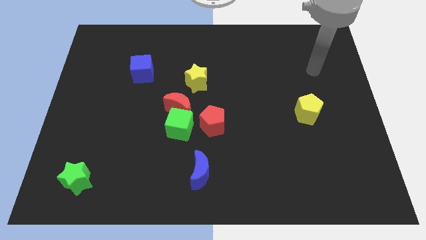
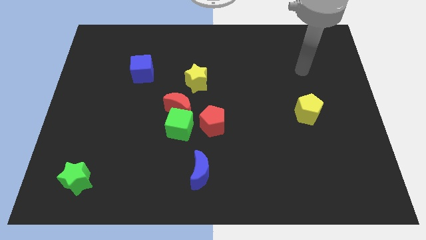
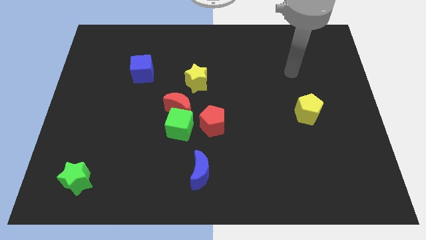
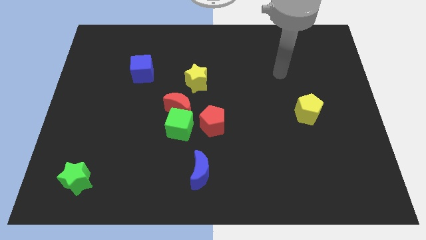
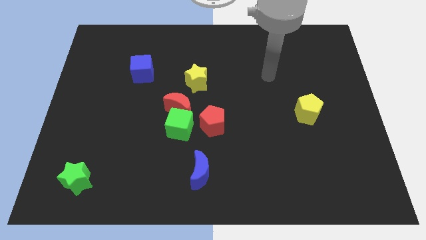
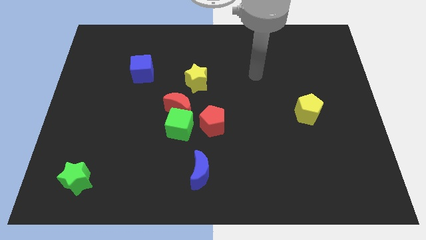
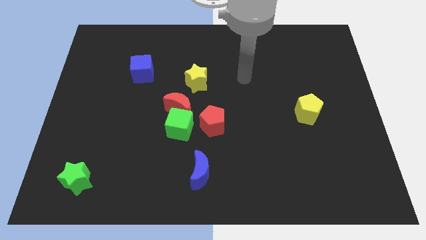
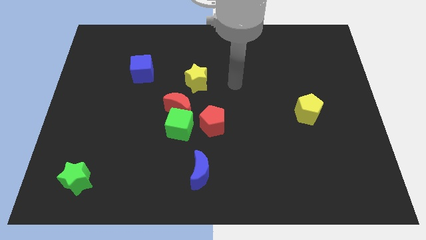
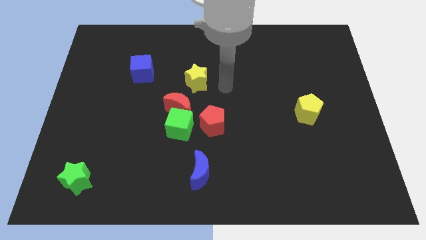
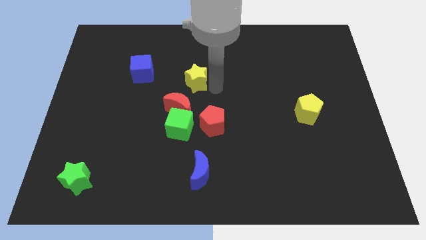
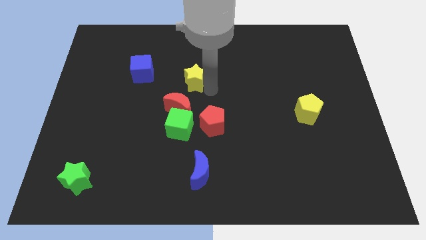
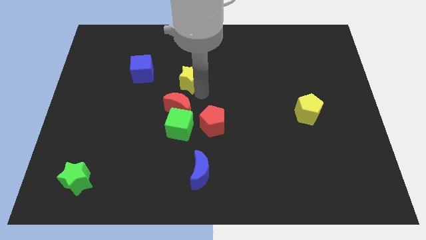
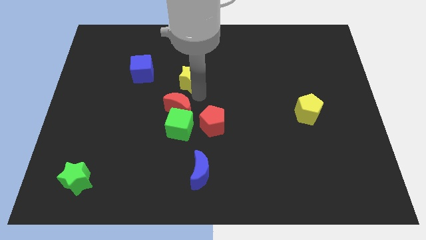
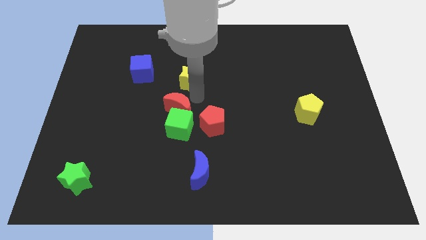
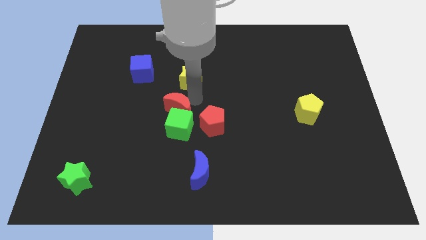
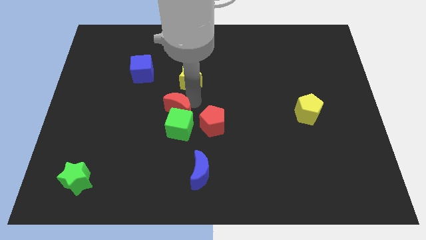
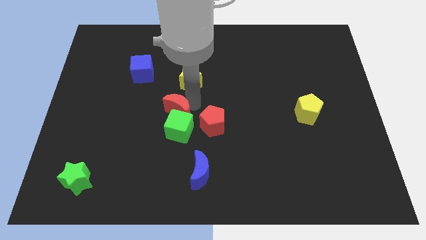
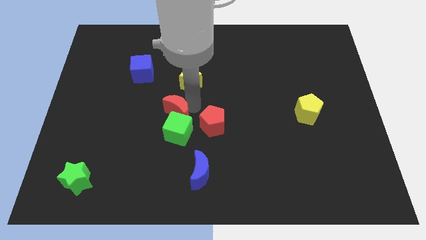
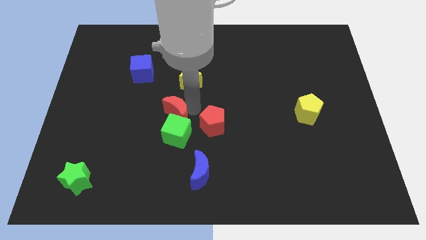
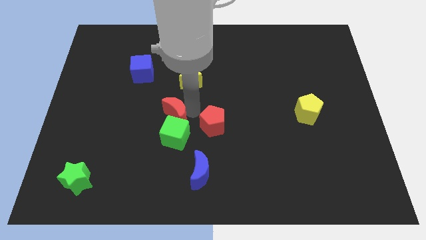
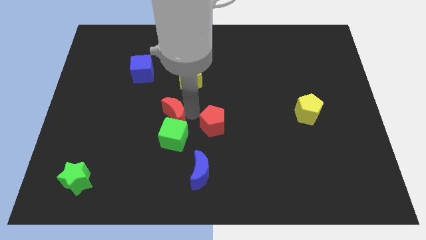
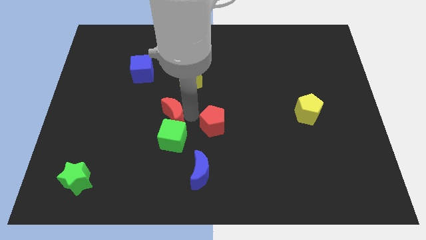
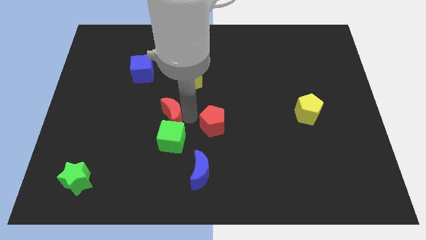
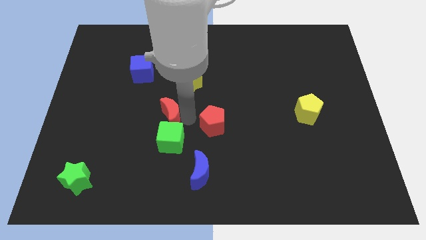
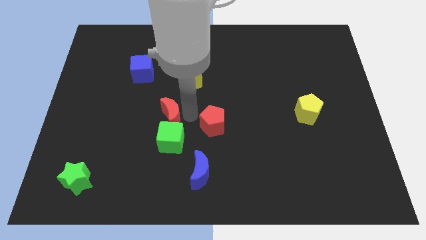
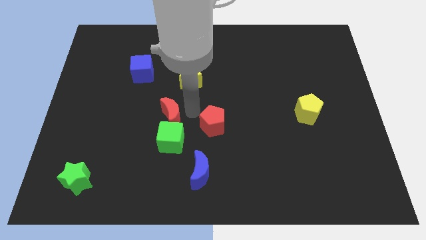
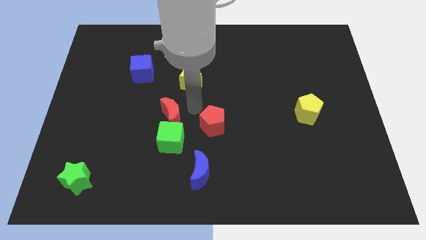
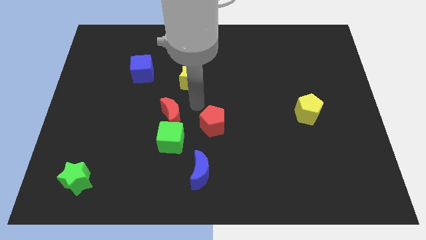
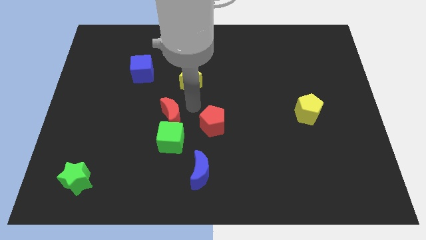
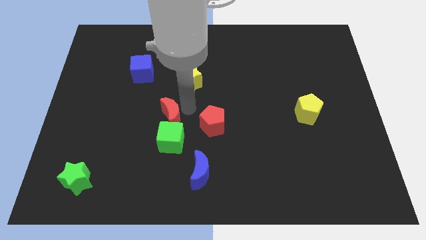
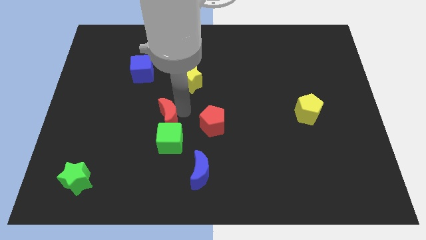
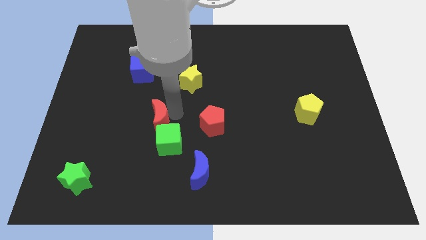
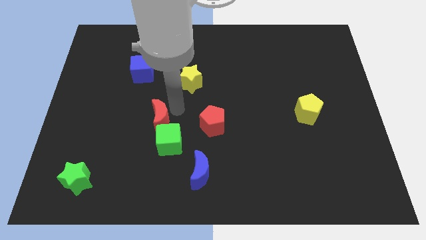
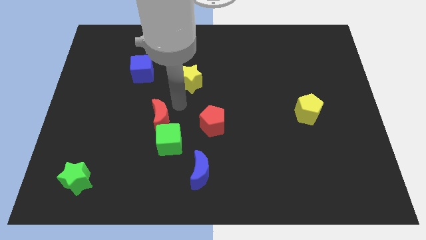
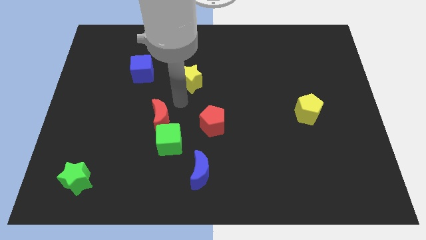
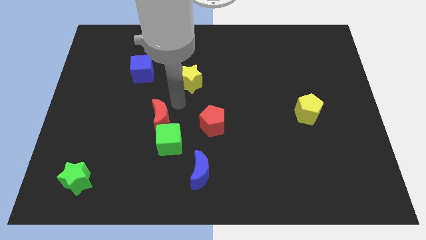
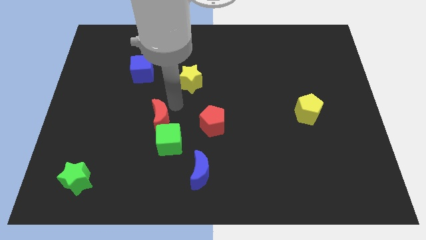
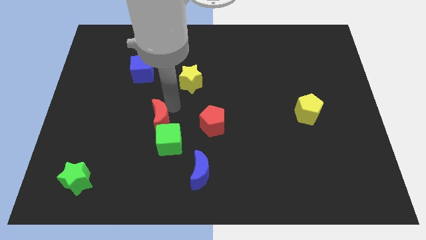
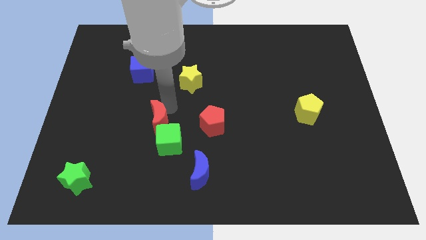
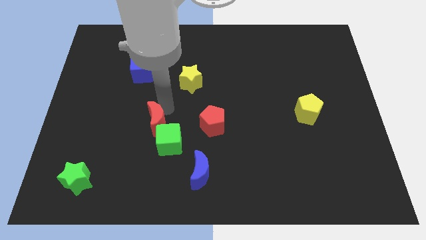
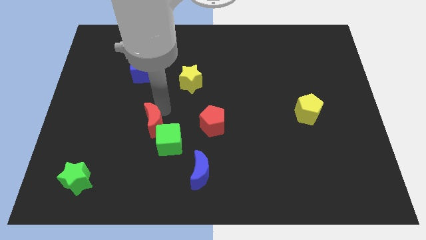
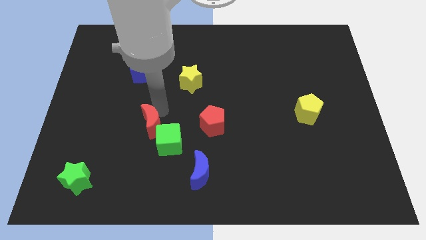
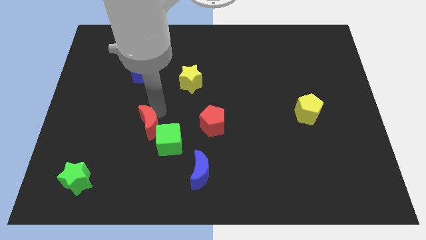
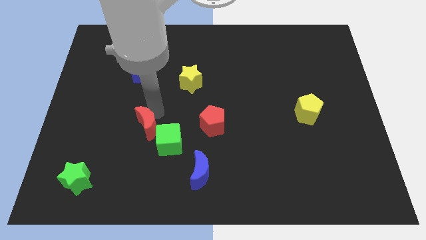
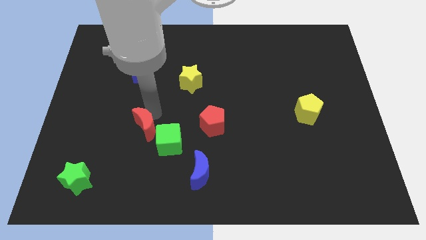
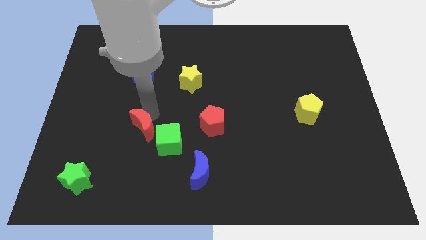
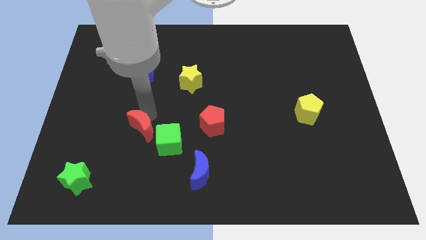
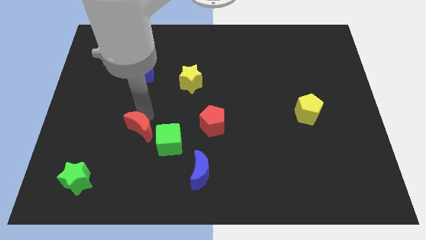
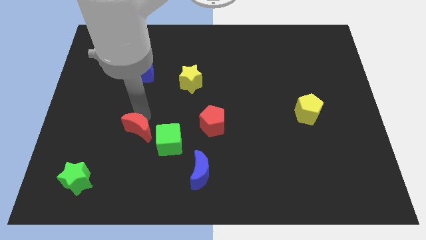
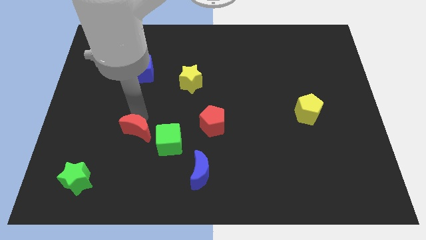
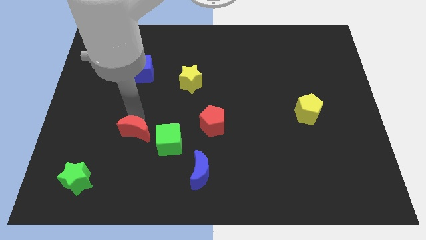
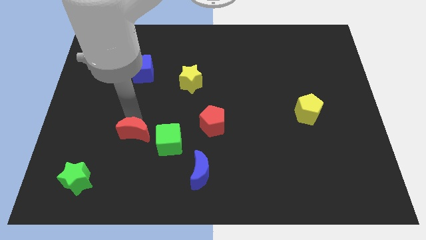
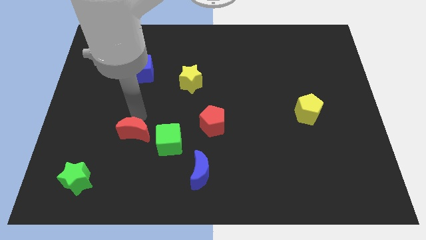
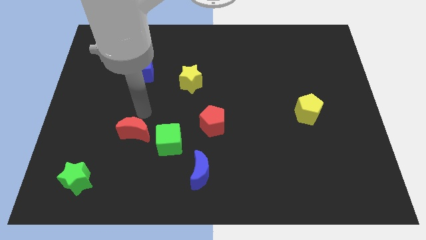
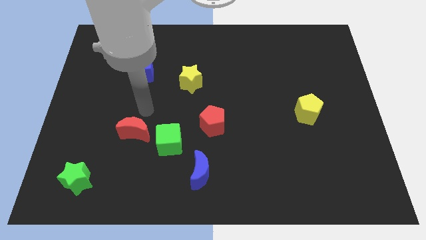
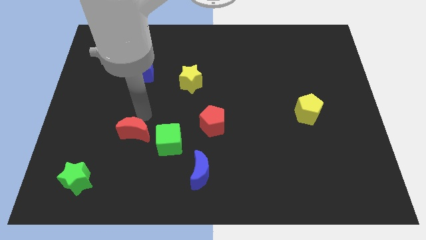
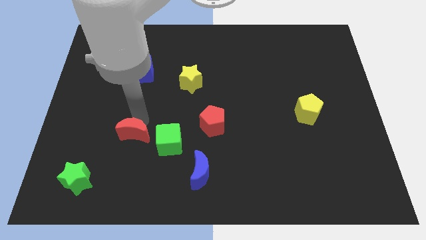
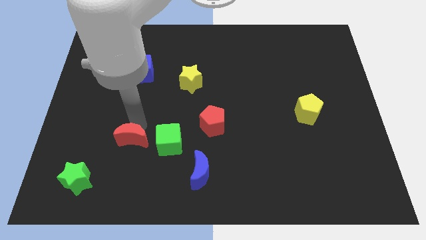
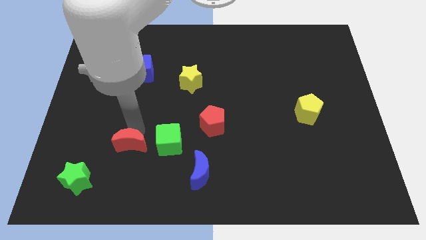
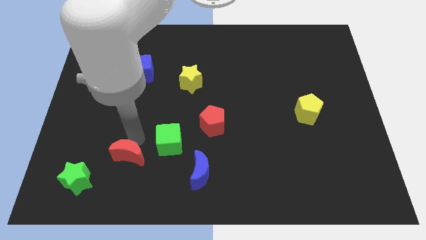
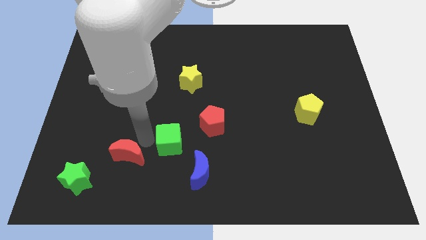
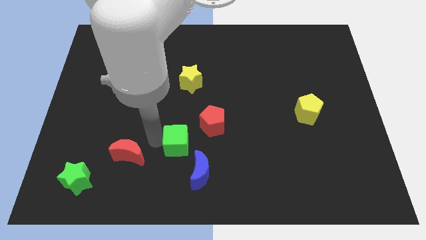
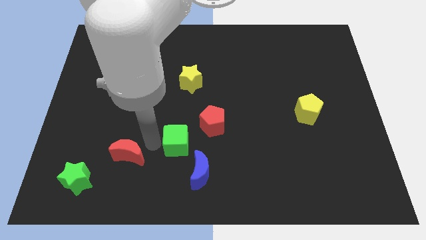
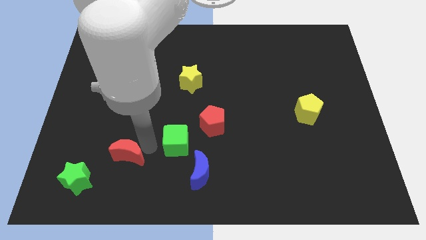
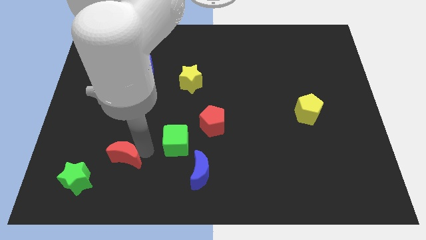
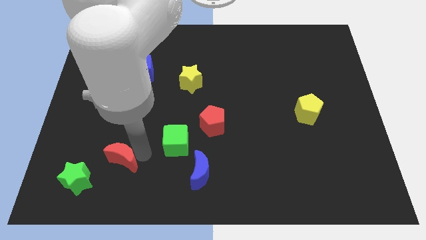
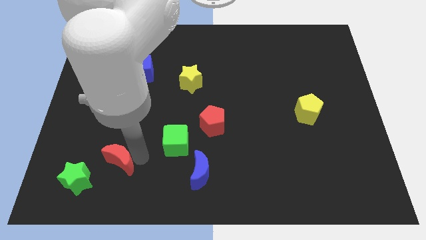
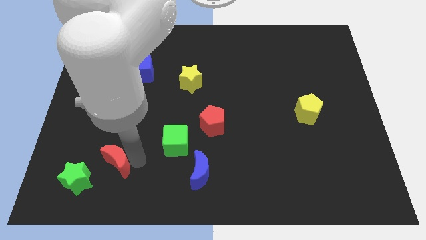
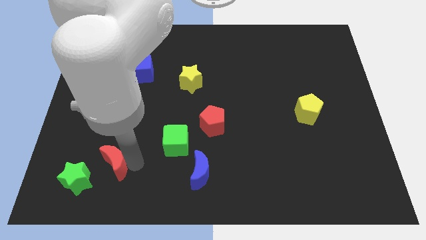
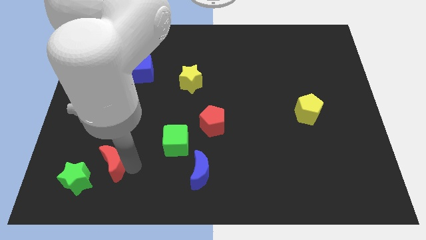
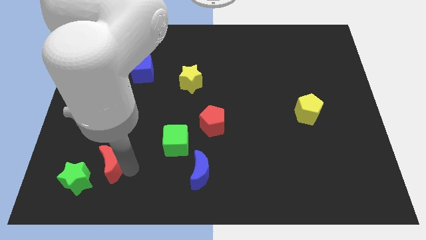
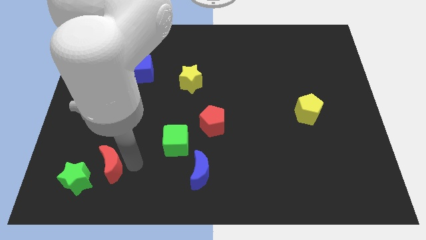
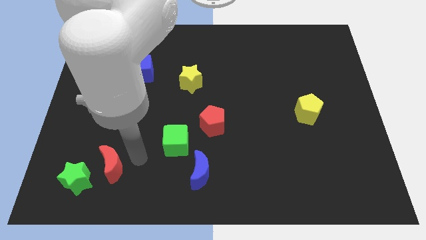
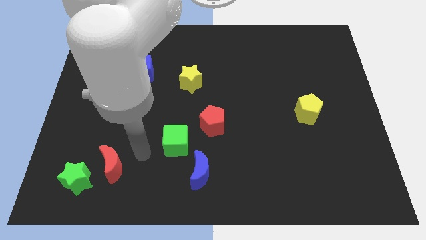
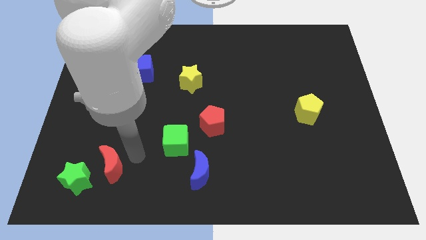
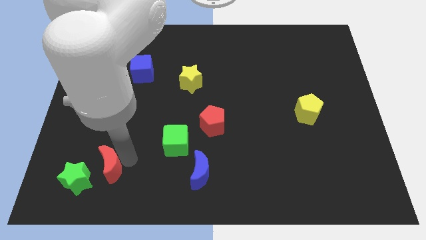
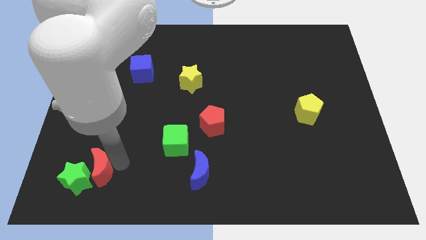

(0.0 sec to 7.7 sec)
put the red moon next to the green star
